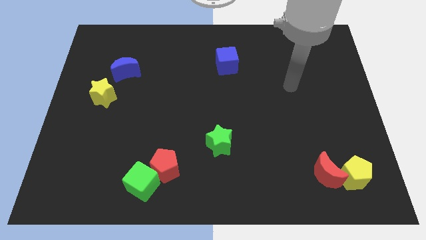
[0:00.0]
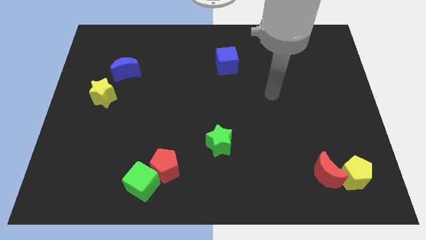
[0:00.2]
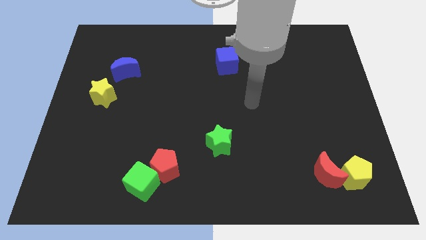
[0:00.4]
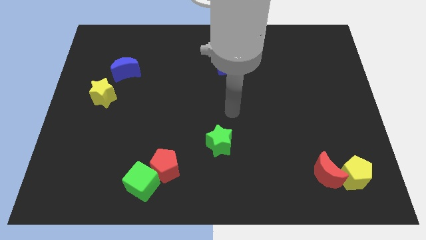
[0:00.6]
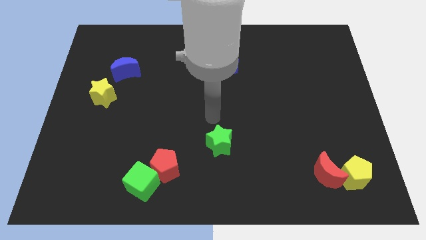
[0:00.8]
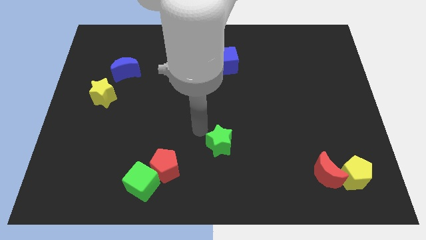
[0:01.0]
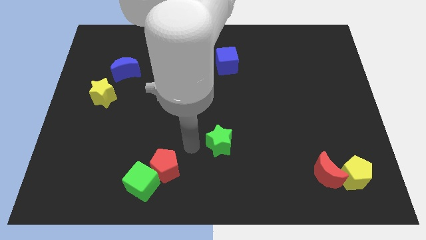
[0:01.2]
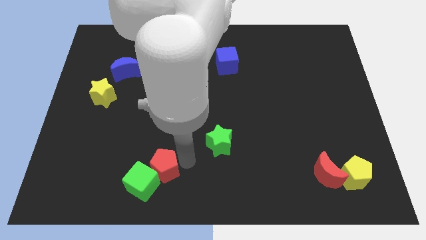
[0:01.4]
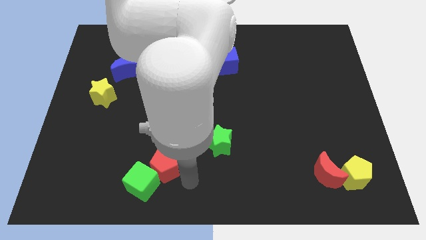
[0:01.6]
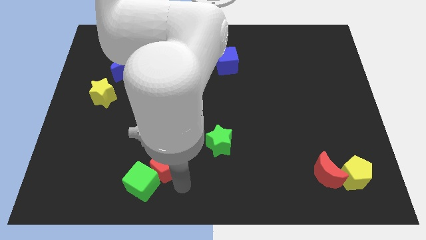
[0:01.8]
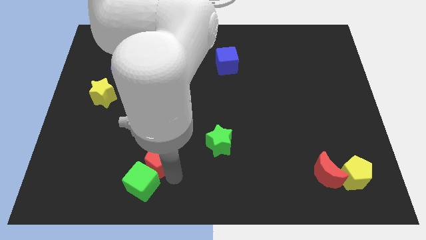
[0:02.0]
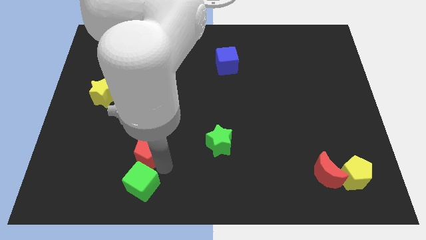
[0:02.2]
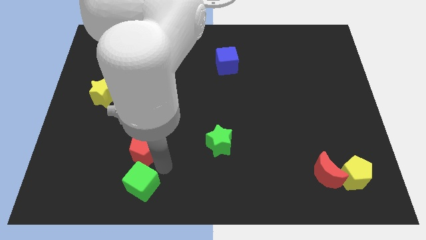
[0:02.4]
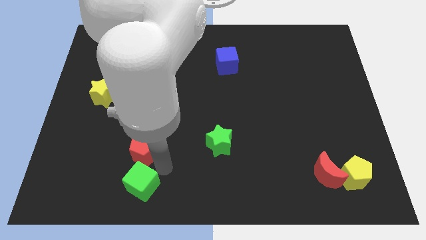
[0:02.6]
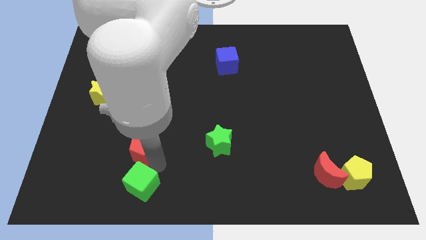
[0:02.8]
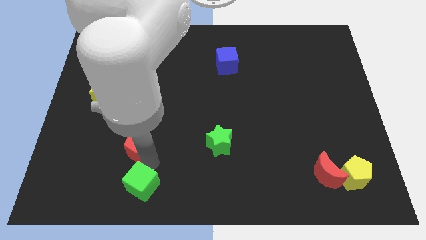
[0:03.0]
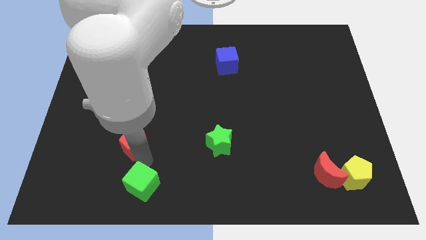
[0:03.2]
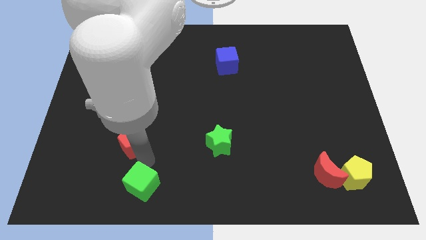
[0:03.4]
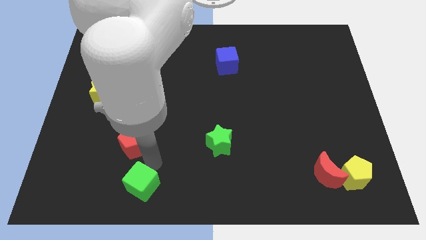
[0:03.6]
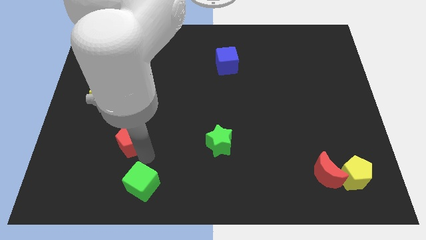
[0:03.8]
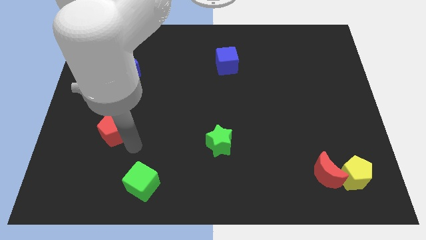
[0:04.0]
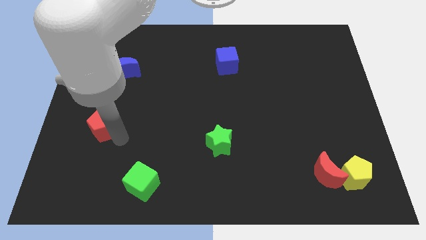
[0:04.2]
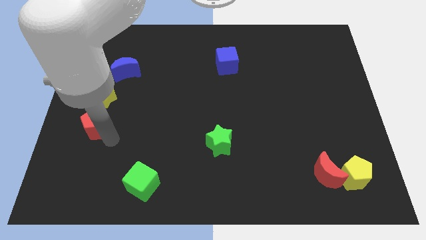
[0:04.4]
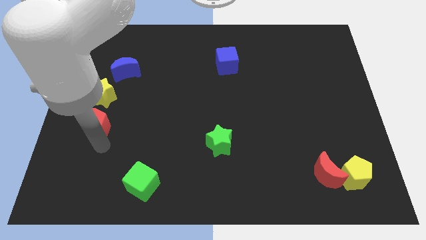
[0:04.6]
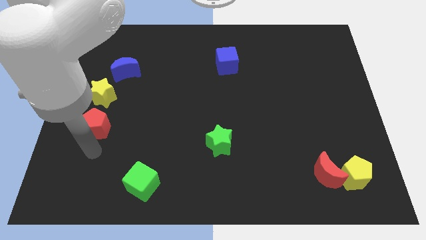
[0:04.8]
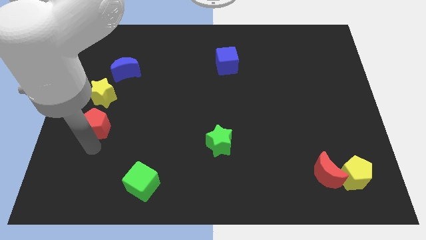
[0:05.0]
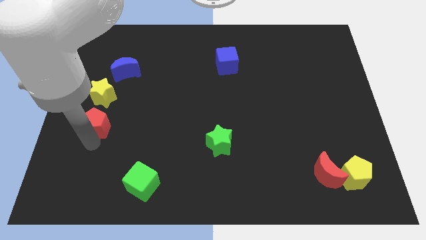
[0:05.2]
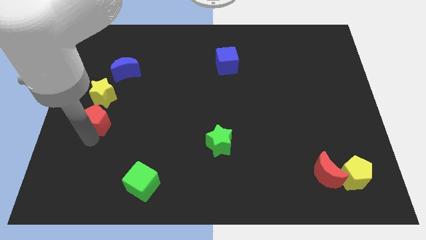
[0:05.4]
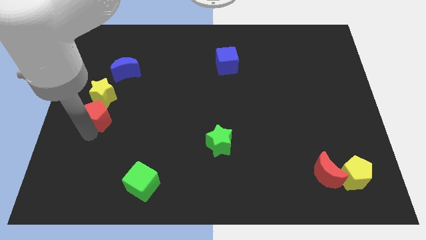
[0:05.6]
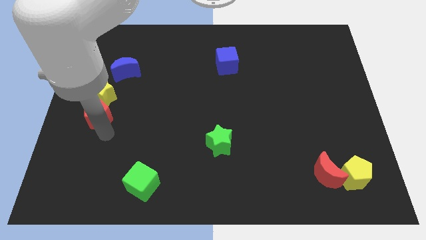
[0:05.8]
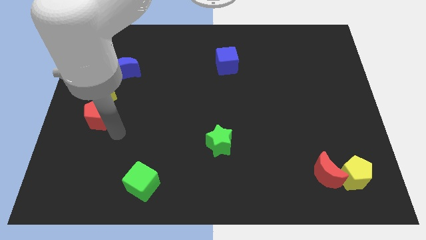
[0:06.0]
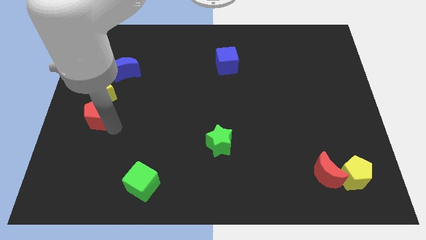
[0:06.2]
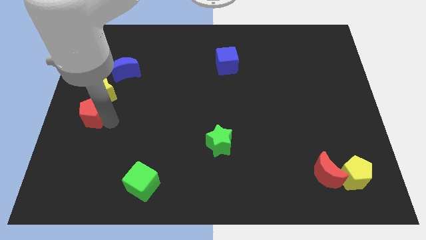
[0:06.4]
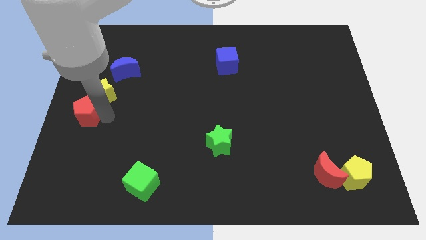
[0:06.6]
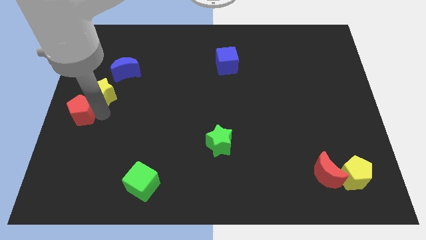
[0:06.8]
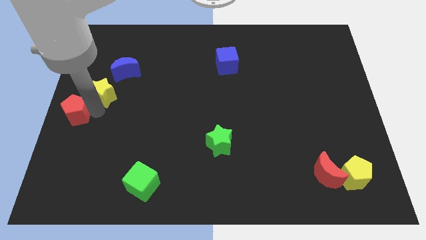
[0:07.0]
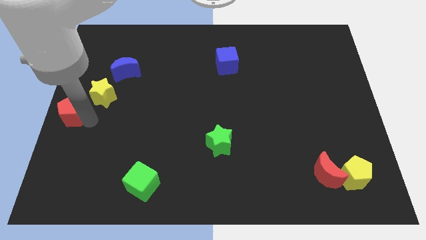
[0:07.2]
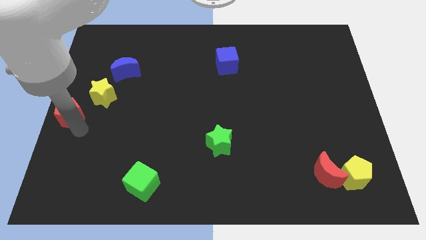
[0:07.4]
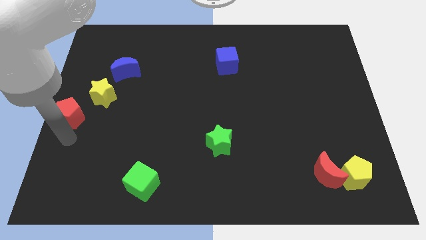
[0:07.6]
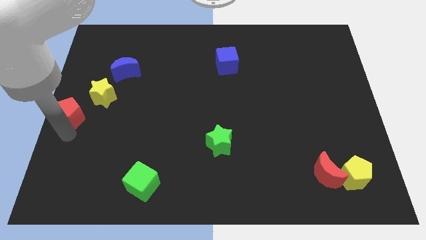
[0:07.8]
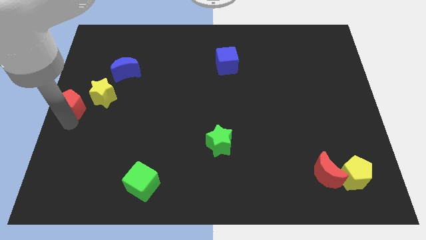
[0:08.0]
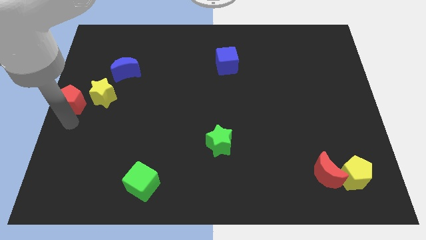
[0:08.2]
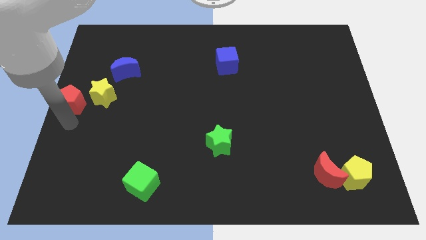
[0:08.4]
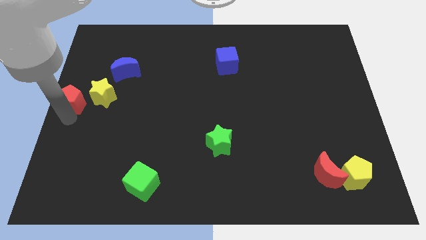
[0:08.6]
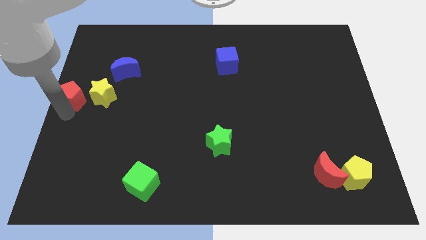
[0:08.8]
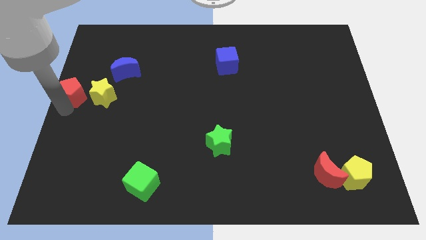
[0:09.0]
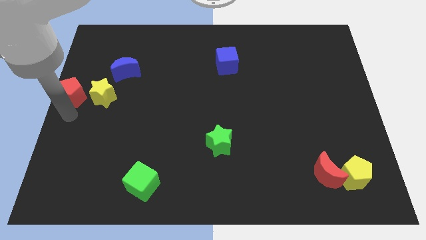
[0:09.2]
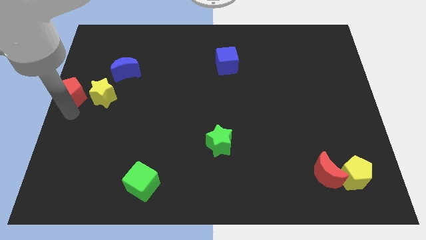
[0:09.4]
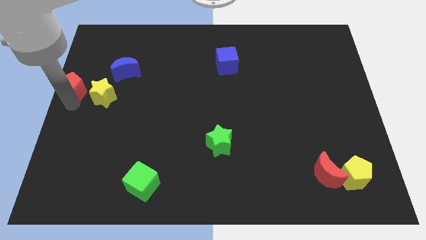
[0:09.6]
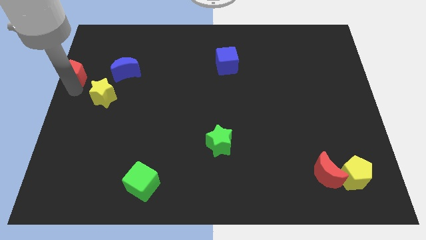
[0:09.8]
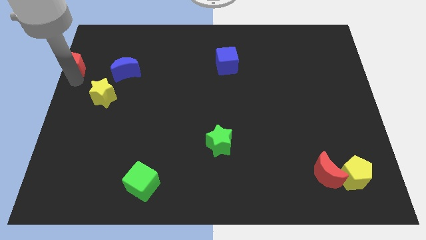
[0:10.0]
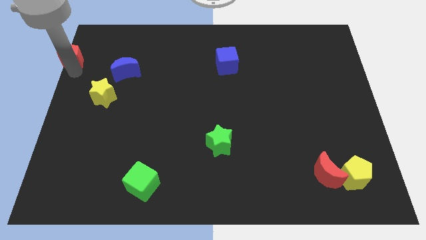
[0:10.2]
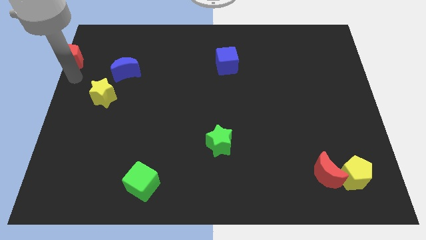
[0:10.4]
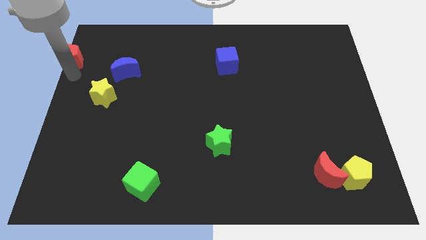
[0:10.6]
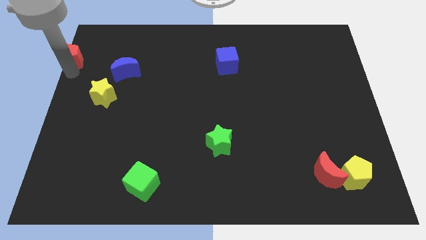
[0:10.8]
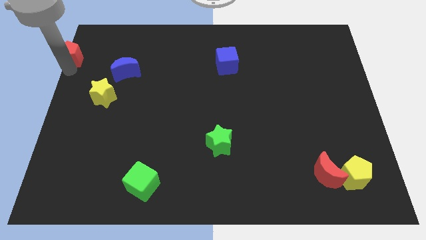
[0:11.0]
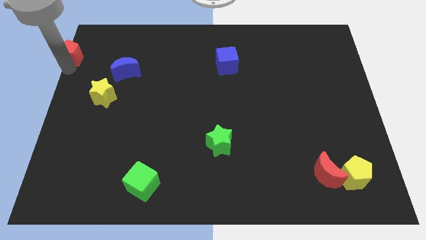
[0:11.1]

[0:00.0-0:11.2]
put the red pentagon to the top left
